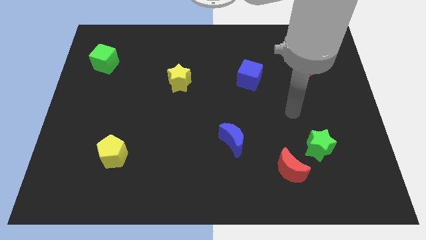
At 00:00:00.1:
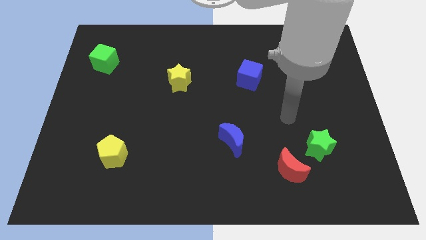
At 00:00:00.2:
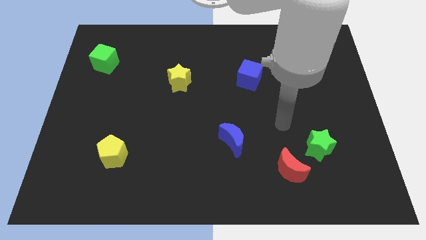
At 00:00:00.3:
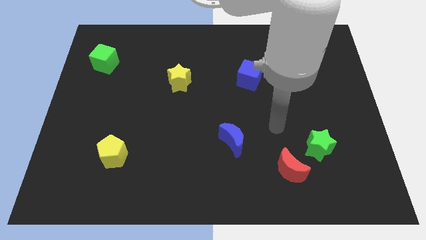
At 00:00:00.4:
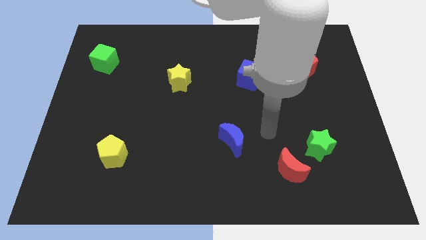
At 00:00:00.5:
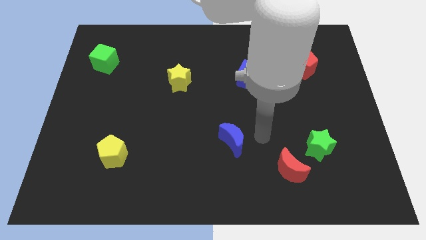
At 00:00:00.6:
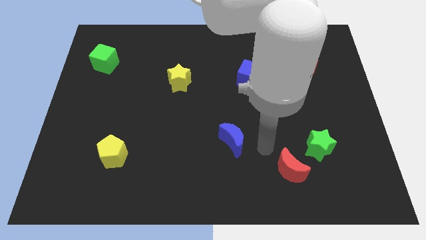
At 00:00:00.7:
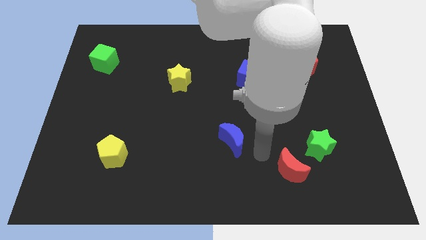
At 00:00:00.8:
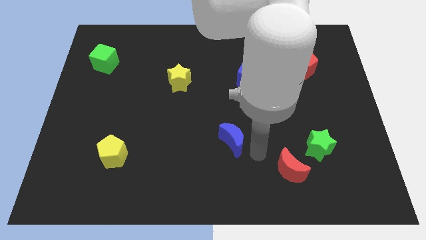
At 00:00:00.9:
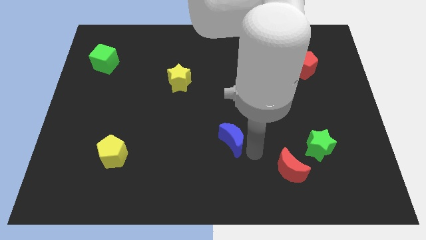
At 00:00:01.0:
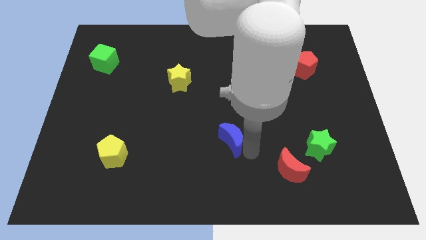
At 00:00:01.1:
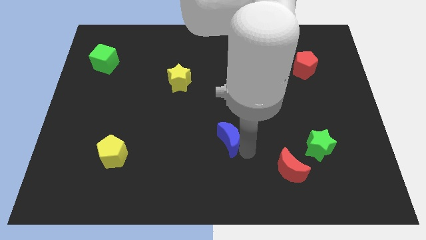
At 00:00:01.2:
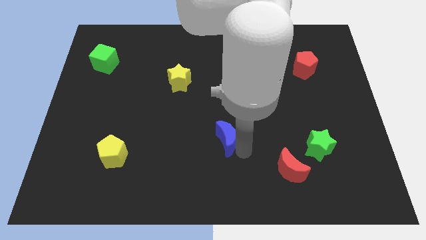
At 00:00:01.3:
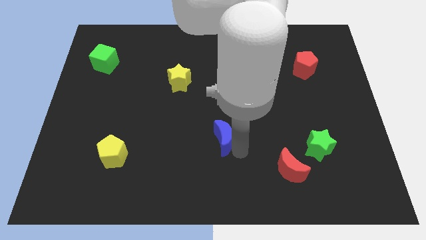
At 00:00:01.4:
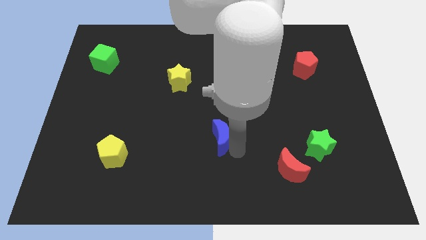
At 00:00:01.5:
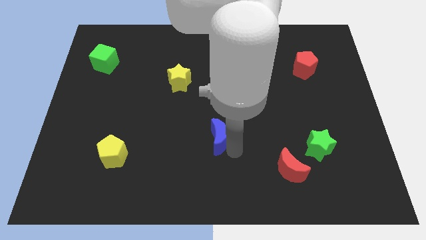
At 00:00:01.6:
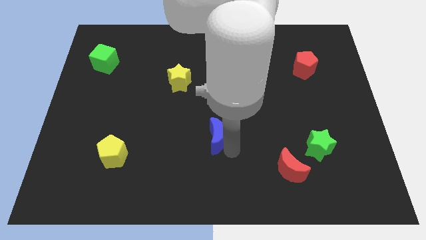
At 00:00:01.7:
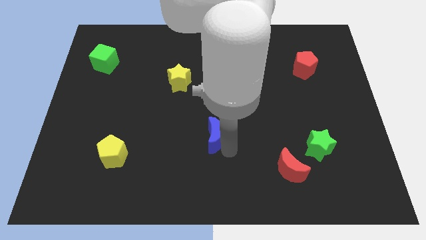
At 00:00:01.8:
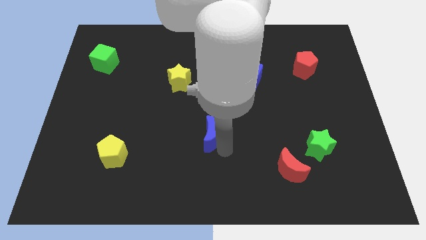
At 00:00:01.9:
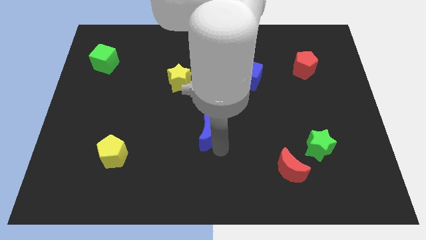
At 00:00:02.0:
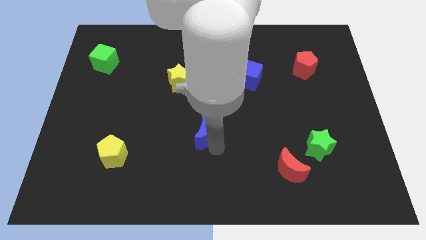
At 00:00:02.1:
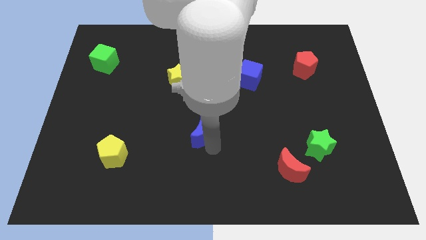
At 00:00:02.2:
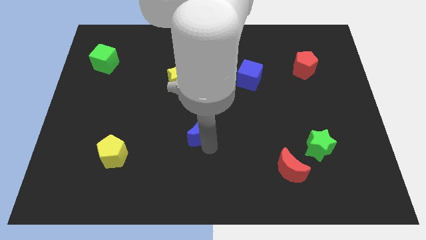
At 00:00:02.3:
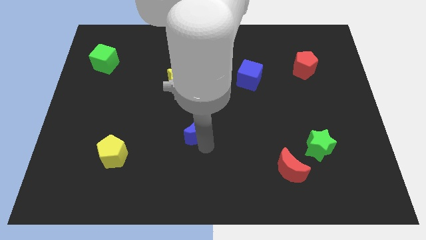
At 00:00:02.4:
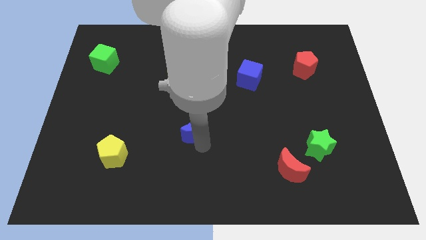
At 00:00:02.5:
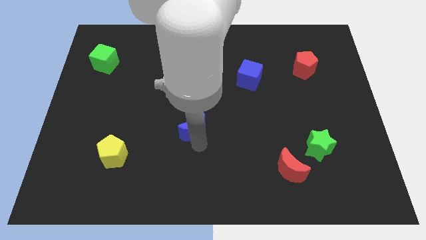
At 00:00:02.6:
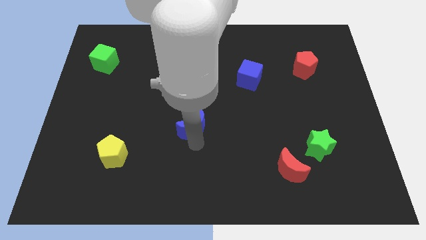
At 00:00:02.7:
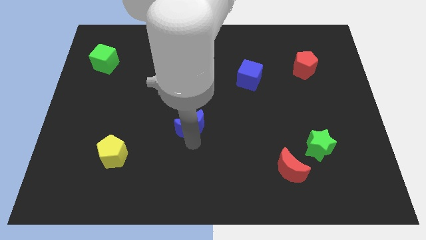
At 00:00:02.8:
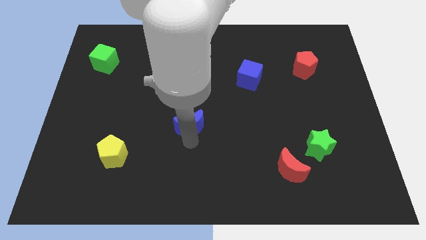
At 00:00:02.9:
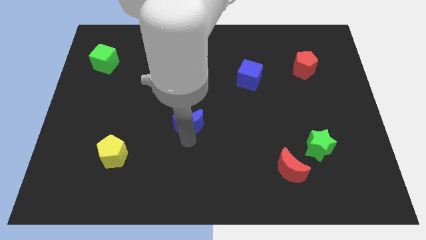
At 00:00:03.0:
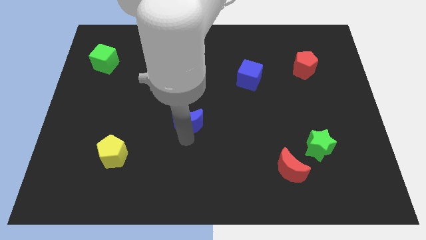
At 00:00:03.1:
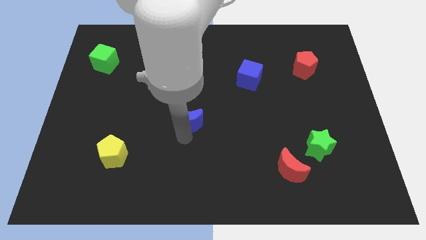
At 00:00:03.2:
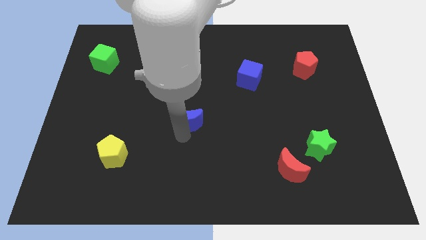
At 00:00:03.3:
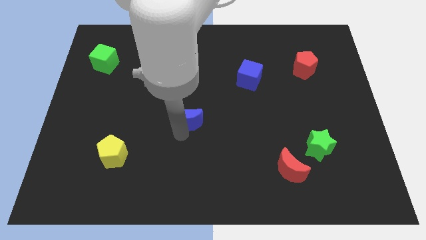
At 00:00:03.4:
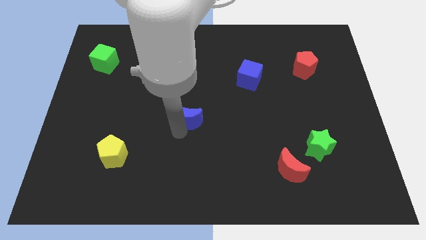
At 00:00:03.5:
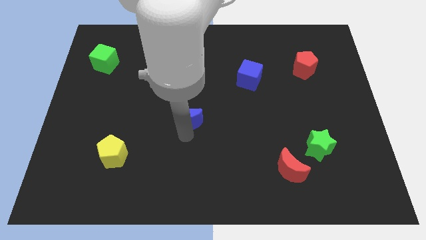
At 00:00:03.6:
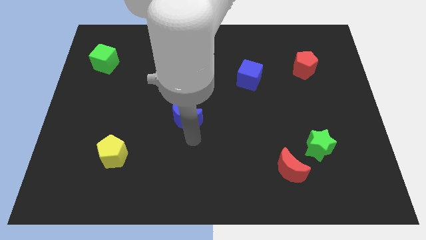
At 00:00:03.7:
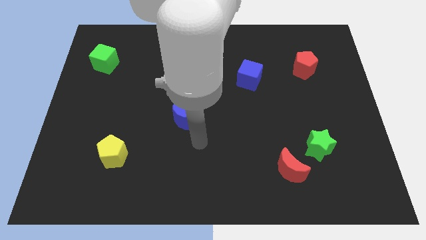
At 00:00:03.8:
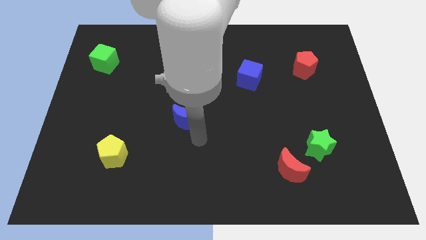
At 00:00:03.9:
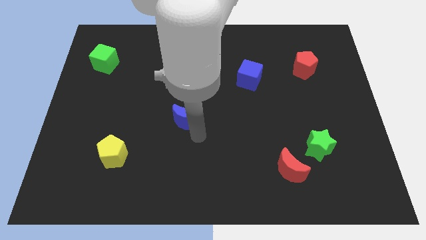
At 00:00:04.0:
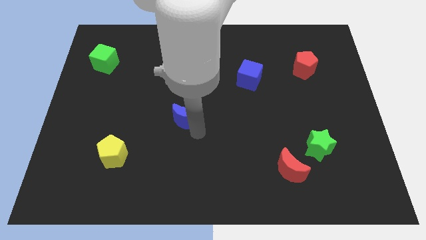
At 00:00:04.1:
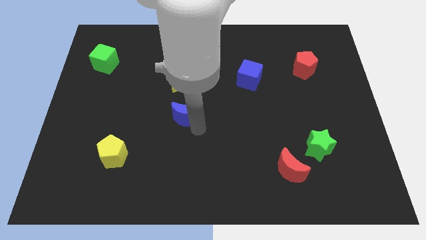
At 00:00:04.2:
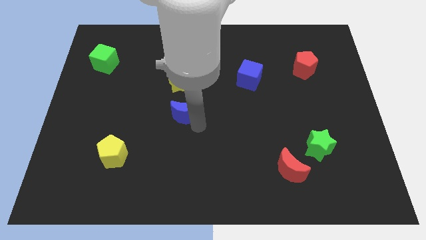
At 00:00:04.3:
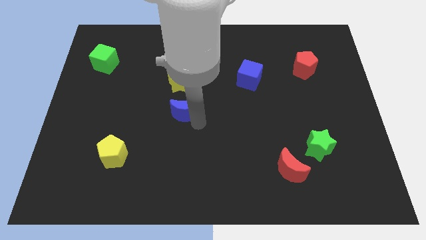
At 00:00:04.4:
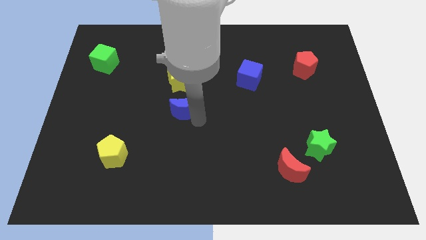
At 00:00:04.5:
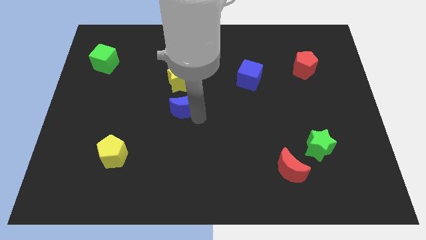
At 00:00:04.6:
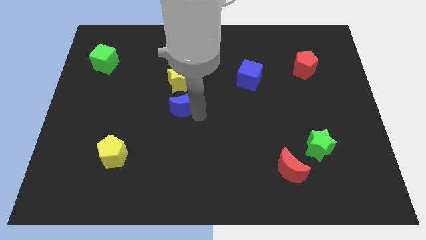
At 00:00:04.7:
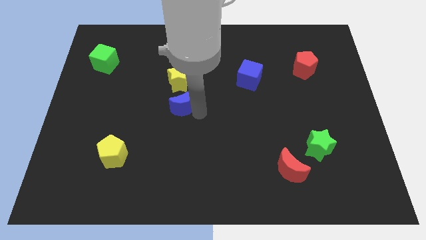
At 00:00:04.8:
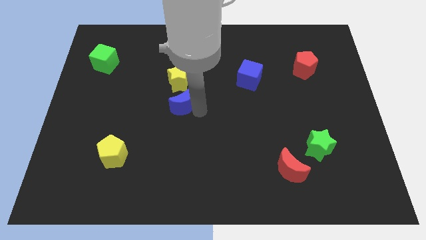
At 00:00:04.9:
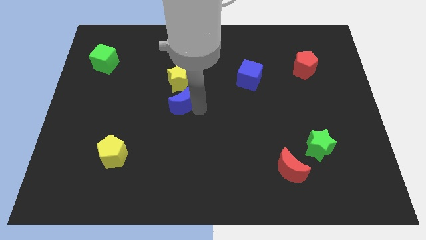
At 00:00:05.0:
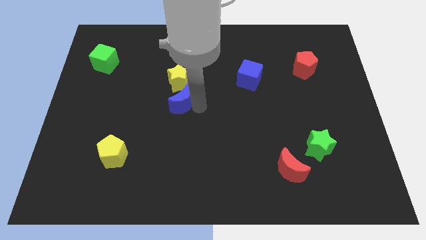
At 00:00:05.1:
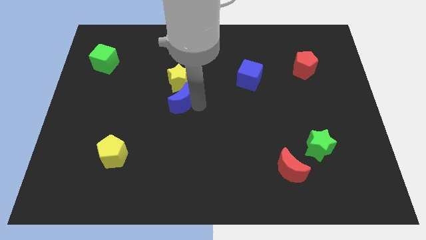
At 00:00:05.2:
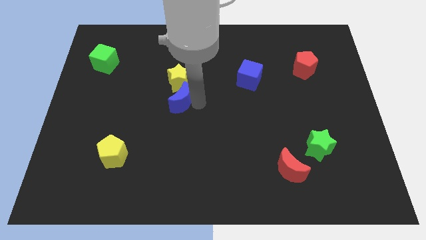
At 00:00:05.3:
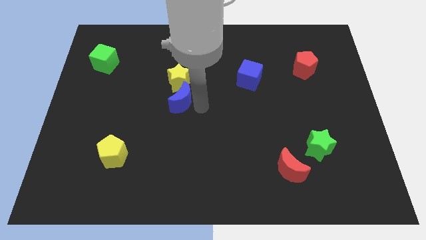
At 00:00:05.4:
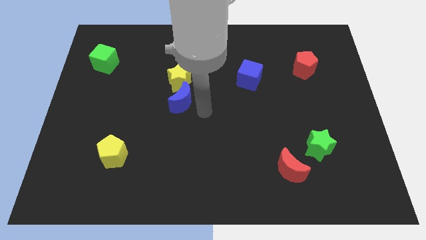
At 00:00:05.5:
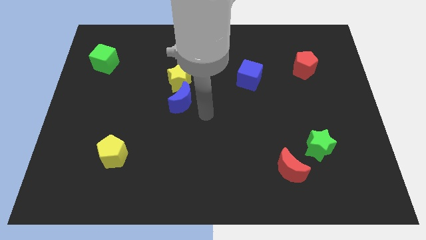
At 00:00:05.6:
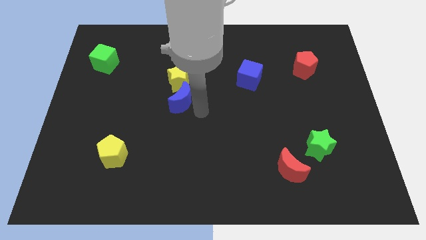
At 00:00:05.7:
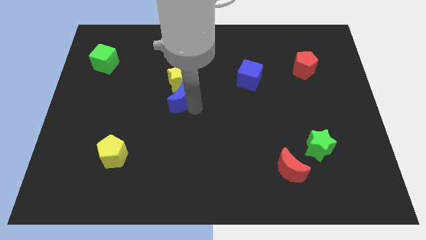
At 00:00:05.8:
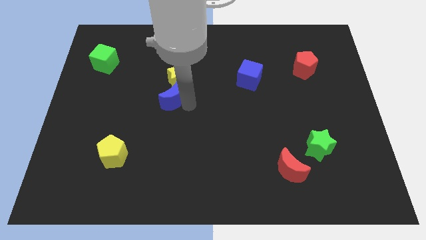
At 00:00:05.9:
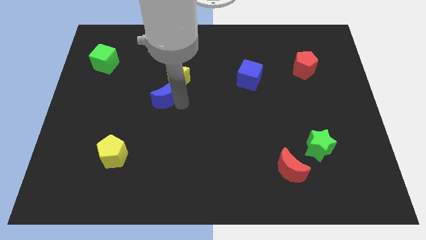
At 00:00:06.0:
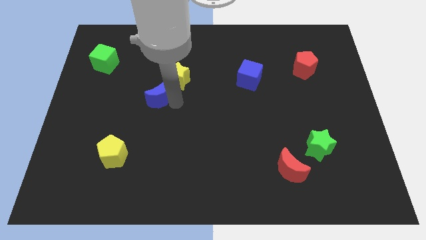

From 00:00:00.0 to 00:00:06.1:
slide the blue moon upwards and then left

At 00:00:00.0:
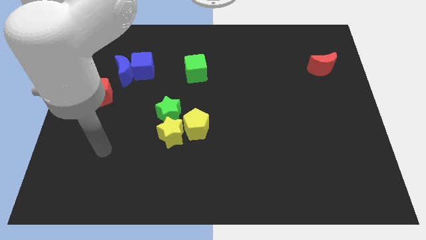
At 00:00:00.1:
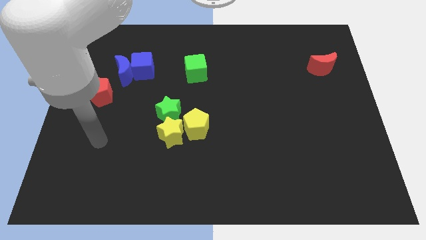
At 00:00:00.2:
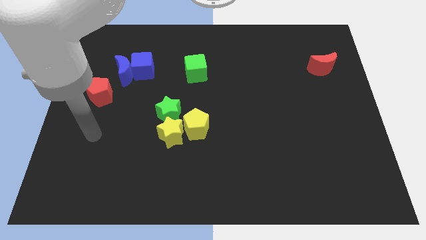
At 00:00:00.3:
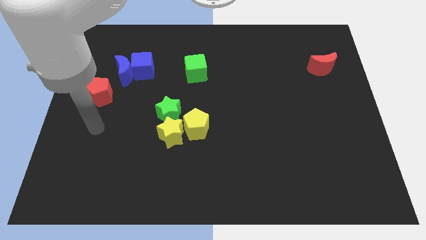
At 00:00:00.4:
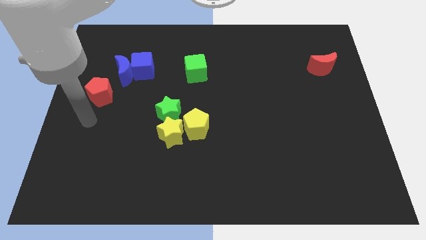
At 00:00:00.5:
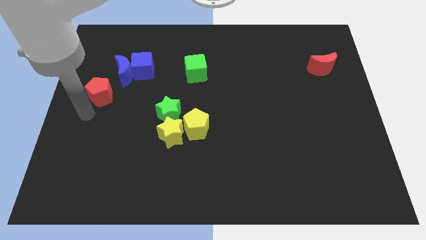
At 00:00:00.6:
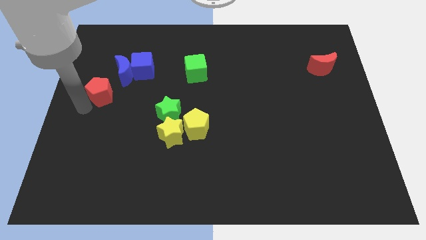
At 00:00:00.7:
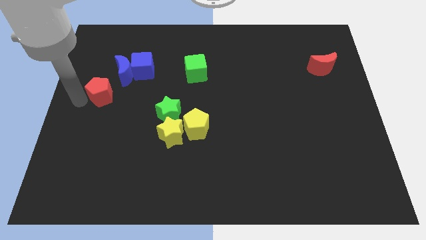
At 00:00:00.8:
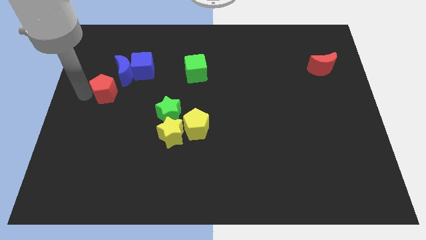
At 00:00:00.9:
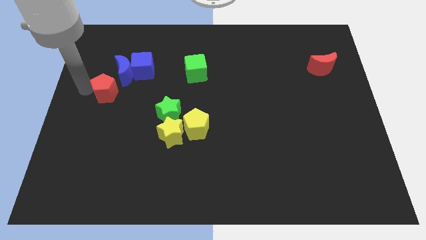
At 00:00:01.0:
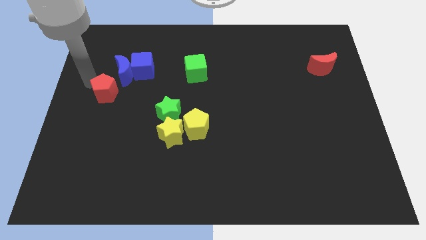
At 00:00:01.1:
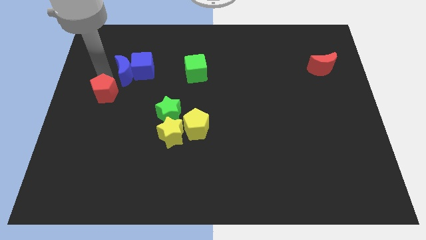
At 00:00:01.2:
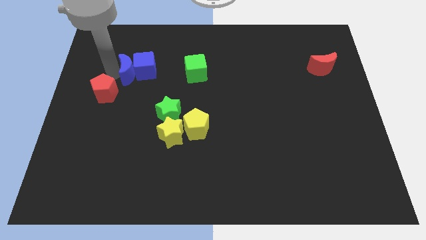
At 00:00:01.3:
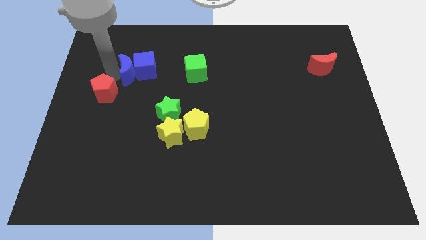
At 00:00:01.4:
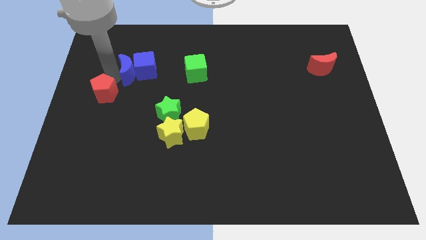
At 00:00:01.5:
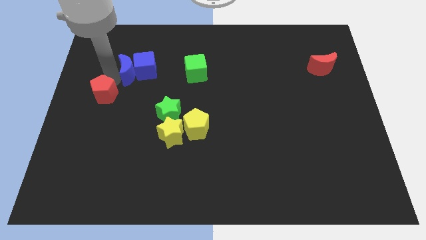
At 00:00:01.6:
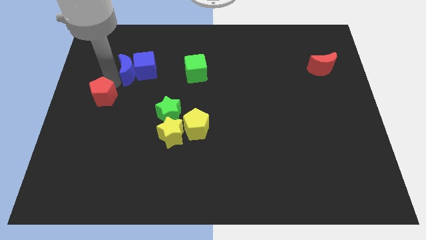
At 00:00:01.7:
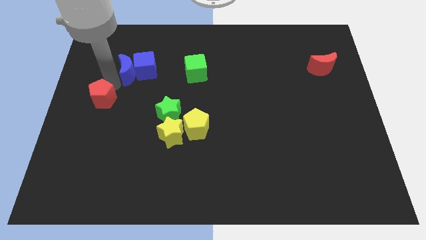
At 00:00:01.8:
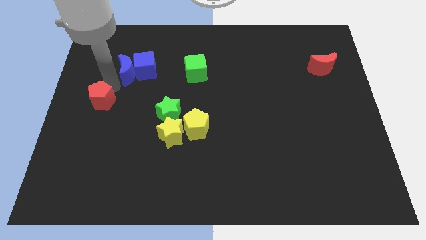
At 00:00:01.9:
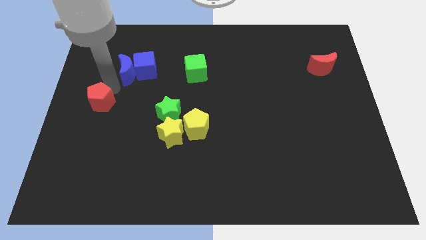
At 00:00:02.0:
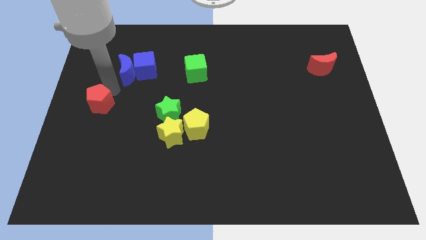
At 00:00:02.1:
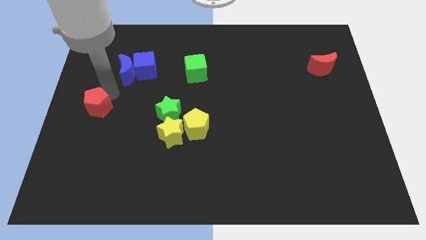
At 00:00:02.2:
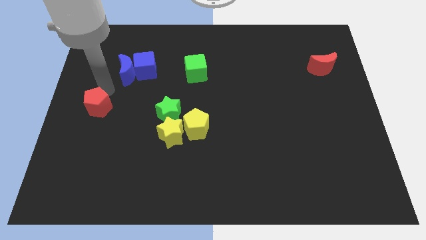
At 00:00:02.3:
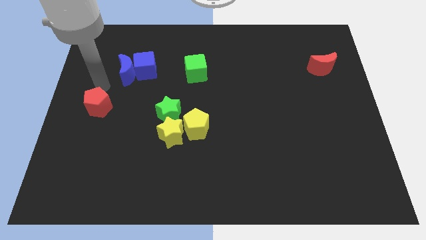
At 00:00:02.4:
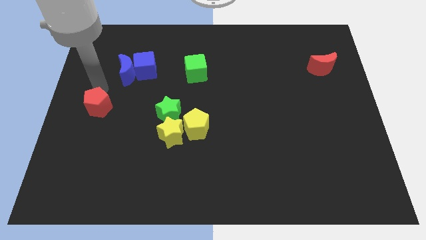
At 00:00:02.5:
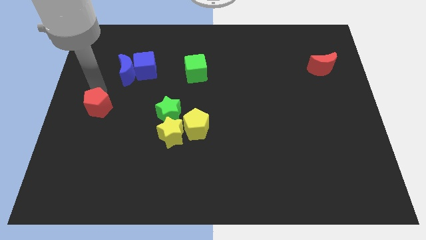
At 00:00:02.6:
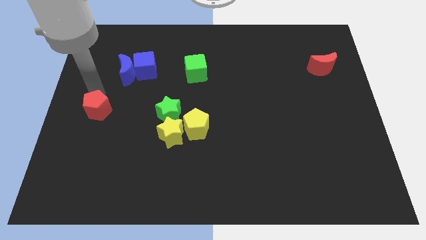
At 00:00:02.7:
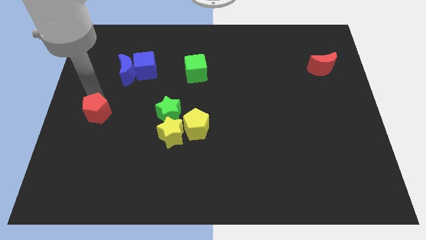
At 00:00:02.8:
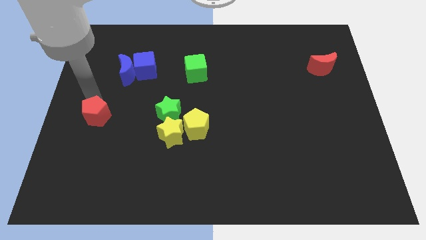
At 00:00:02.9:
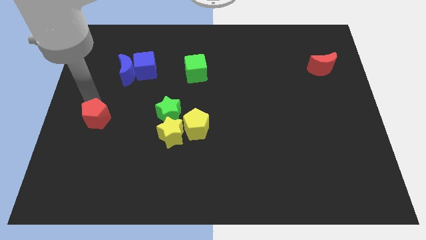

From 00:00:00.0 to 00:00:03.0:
slightly move the red pentagon downwards
